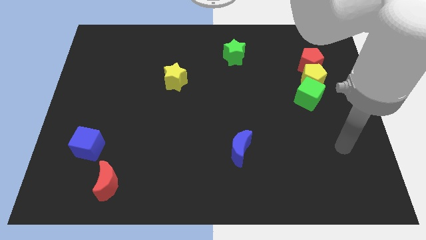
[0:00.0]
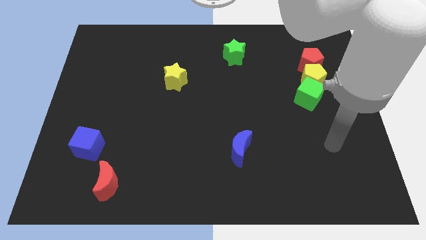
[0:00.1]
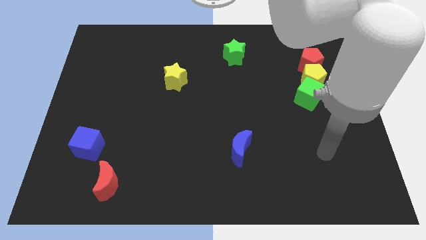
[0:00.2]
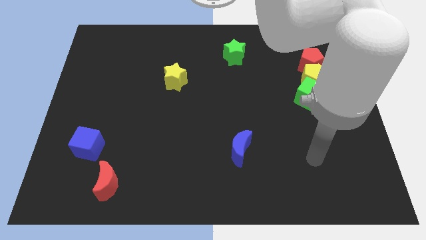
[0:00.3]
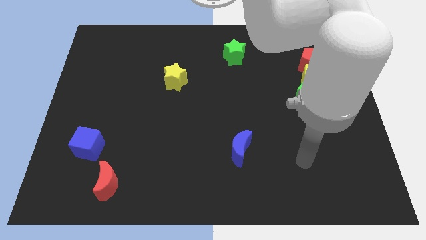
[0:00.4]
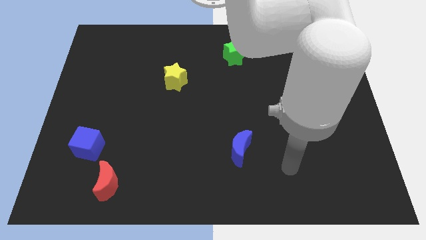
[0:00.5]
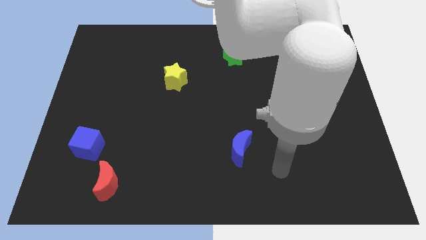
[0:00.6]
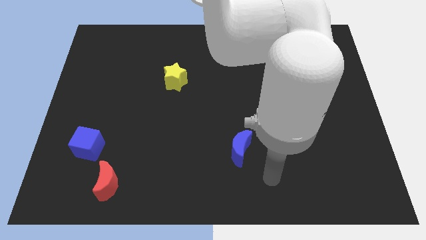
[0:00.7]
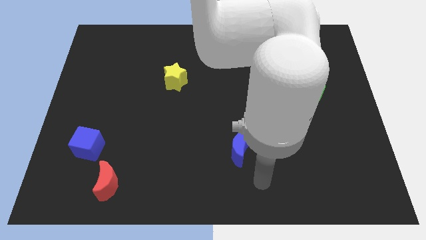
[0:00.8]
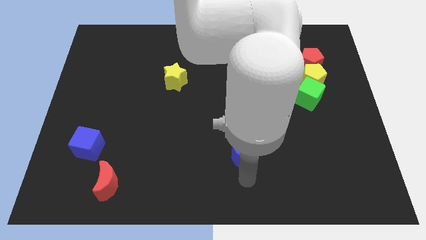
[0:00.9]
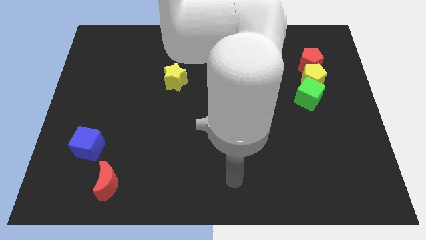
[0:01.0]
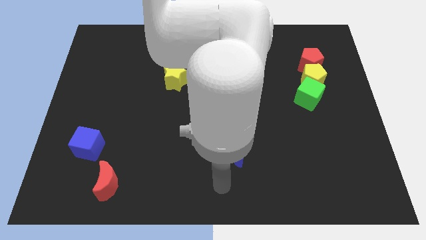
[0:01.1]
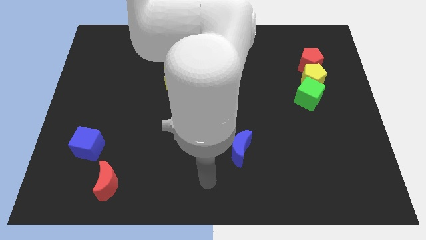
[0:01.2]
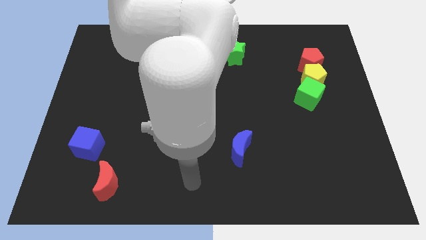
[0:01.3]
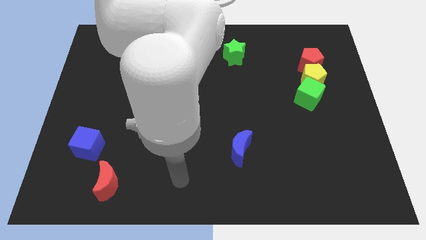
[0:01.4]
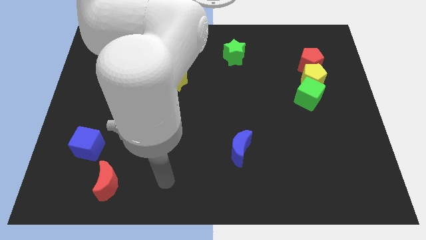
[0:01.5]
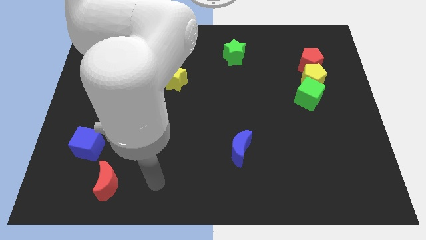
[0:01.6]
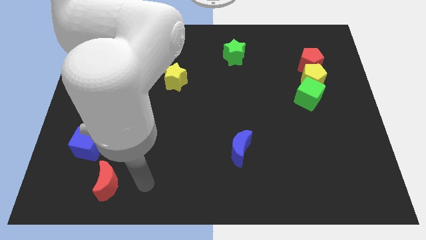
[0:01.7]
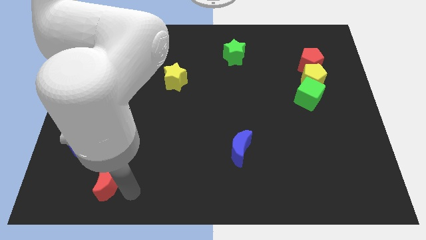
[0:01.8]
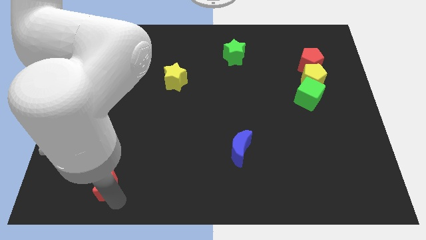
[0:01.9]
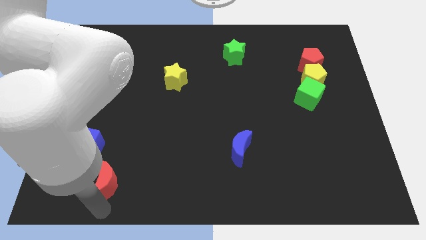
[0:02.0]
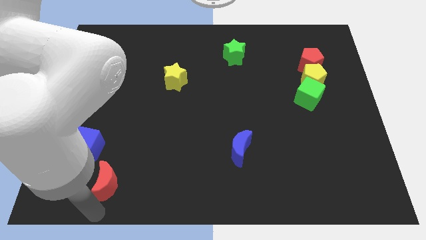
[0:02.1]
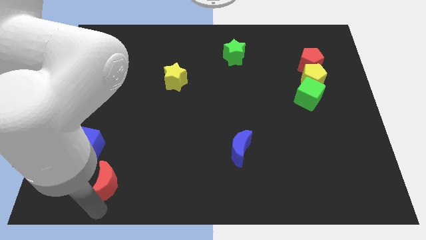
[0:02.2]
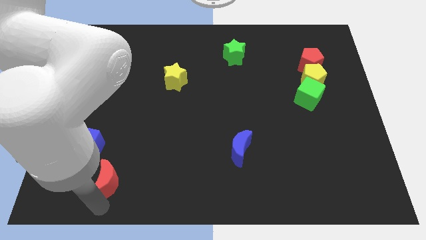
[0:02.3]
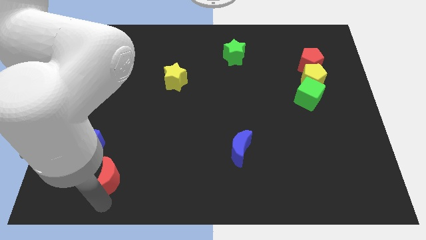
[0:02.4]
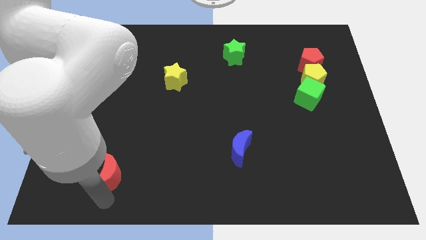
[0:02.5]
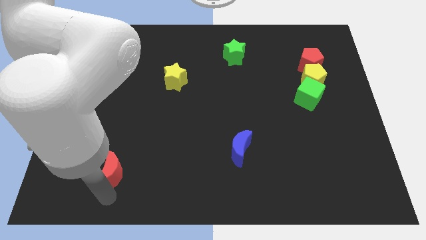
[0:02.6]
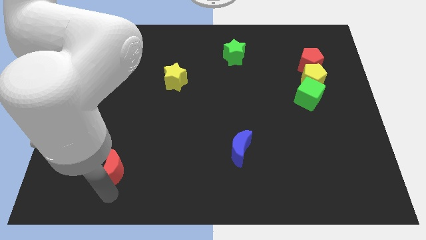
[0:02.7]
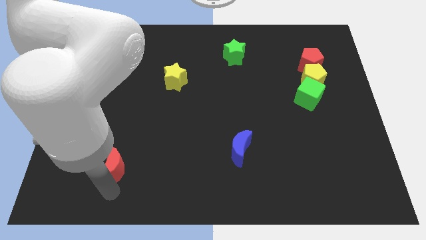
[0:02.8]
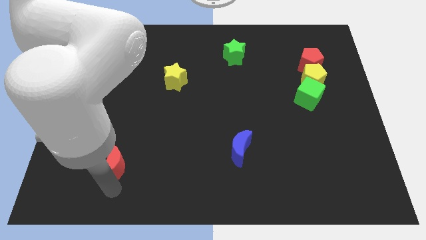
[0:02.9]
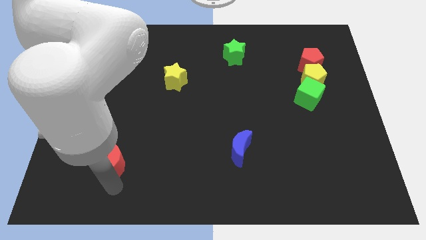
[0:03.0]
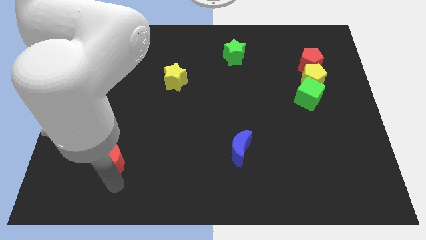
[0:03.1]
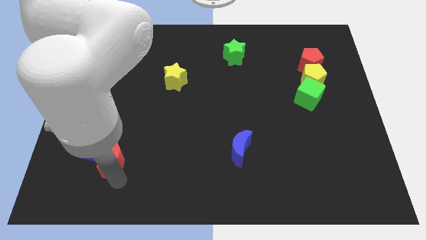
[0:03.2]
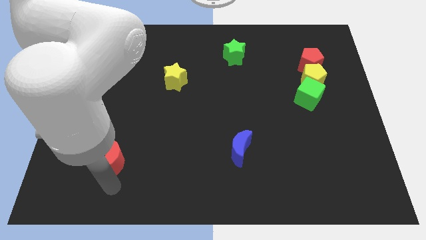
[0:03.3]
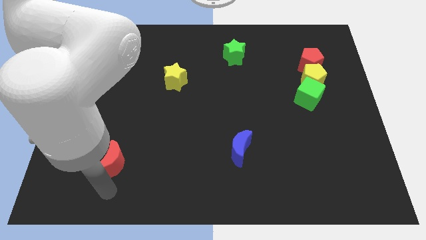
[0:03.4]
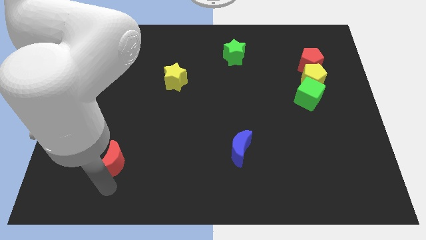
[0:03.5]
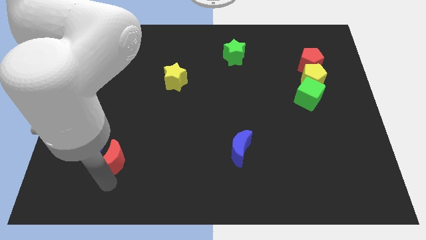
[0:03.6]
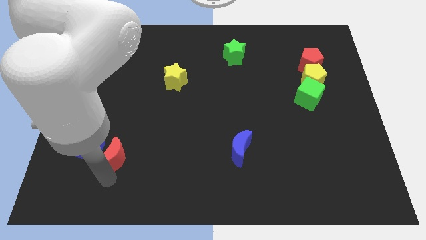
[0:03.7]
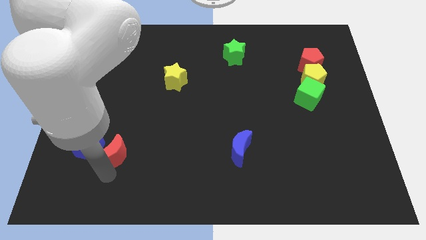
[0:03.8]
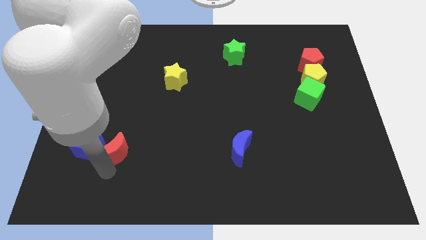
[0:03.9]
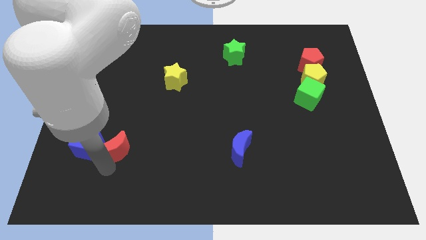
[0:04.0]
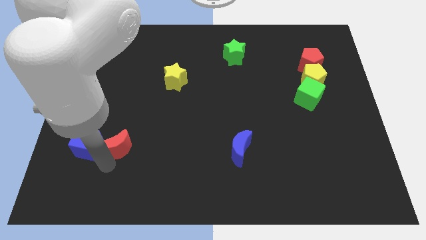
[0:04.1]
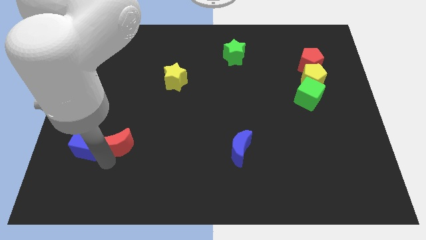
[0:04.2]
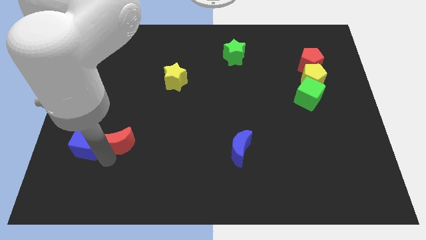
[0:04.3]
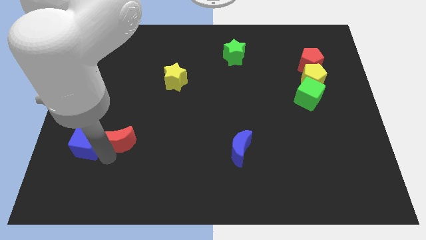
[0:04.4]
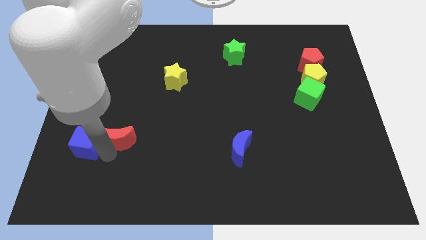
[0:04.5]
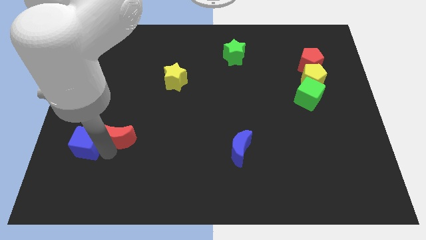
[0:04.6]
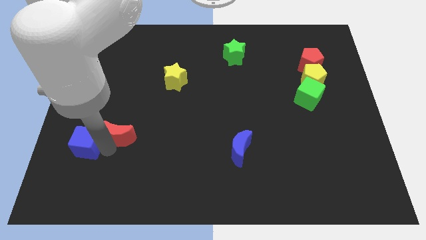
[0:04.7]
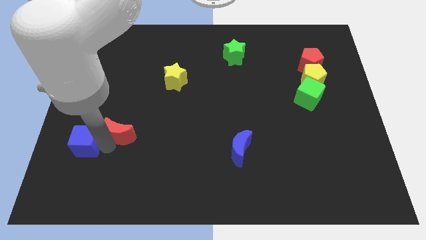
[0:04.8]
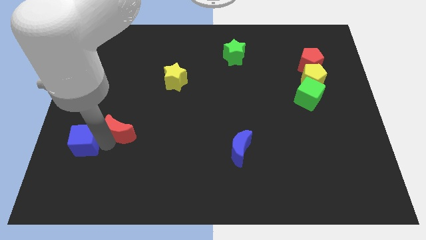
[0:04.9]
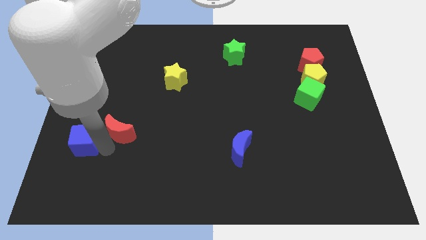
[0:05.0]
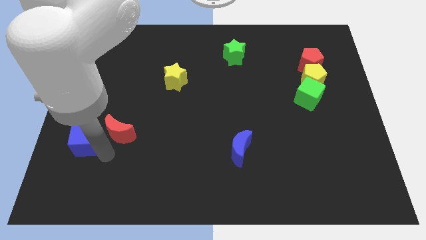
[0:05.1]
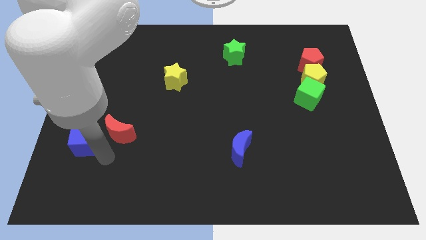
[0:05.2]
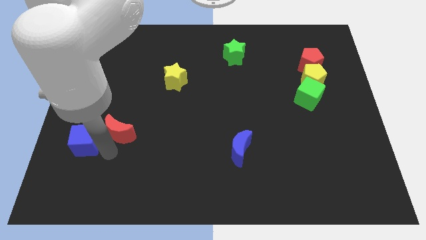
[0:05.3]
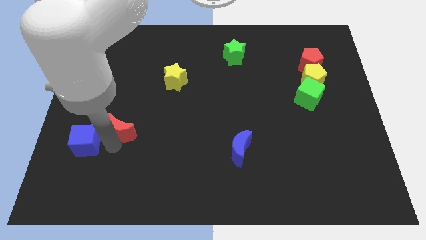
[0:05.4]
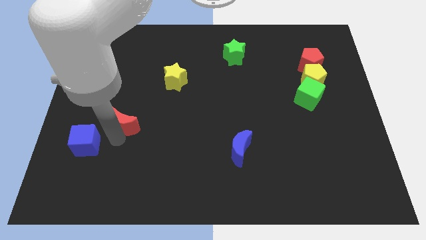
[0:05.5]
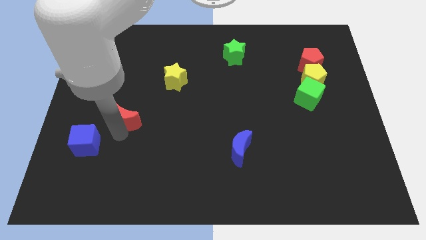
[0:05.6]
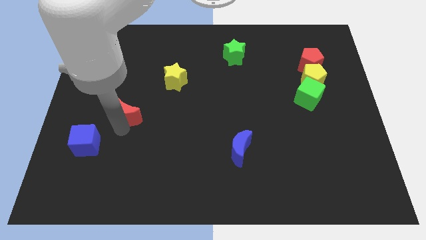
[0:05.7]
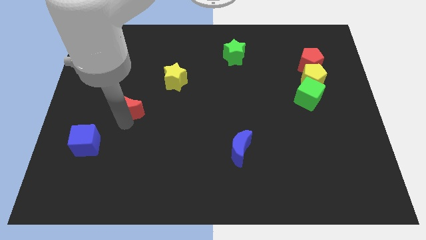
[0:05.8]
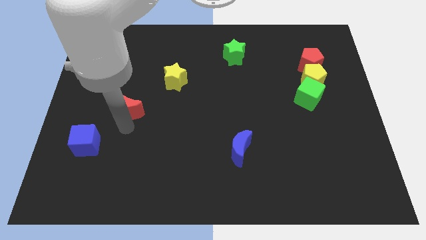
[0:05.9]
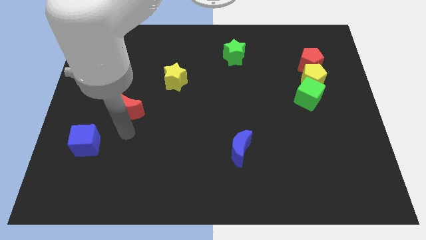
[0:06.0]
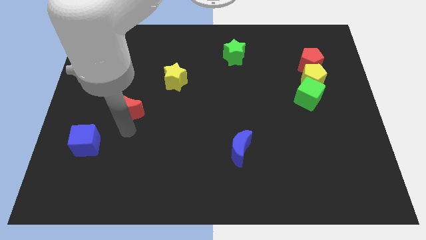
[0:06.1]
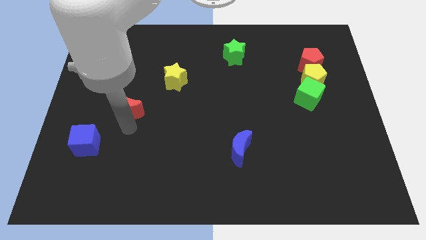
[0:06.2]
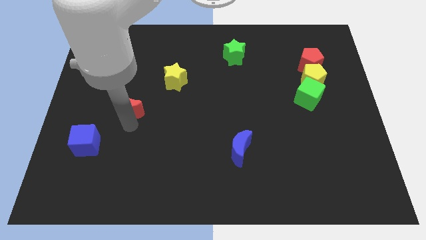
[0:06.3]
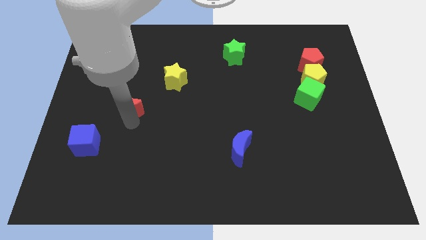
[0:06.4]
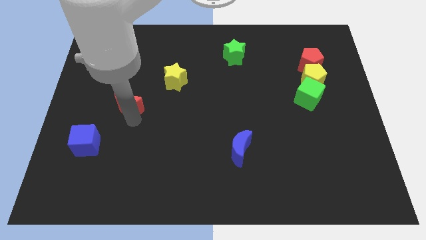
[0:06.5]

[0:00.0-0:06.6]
slide the red moon up

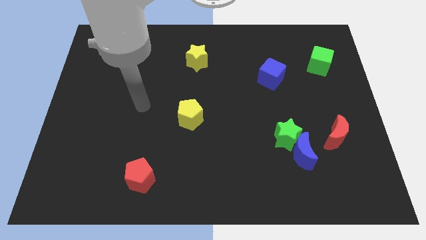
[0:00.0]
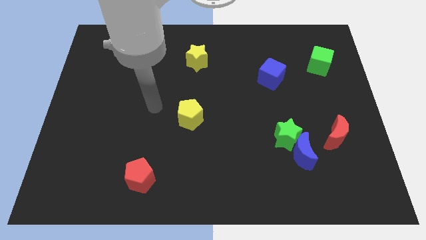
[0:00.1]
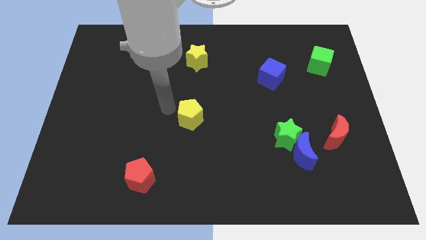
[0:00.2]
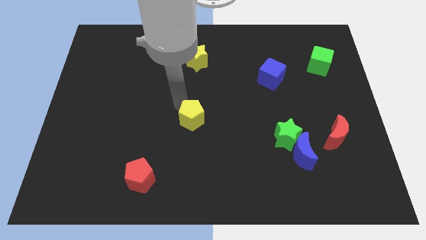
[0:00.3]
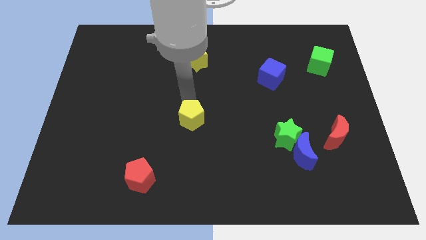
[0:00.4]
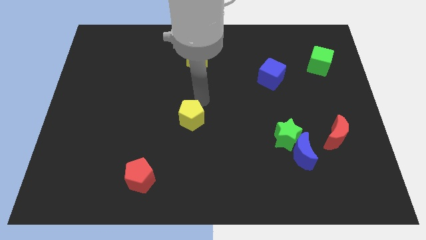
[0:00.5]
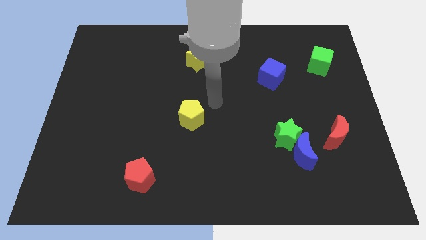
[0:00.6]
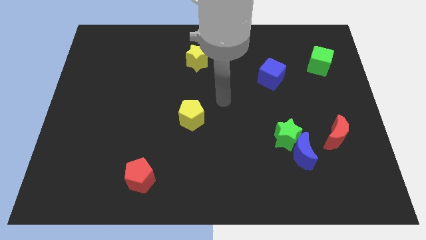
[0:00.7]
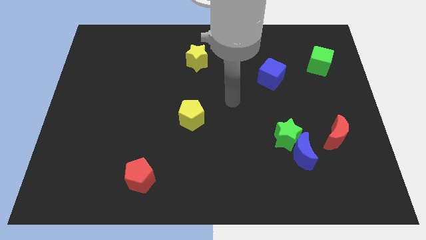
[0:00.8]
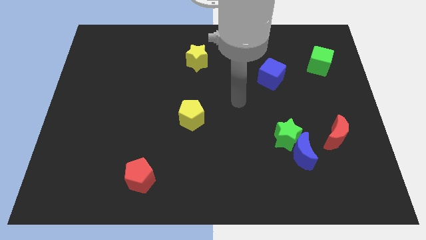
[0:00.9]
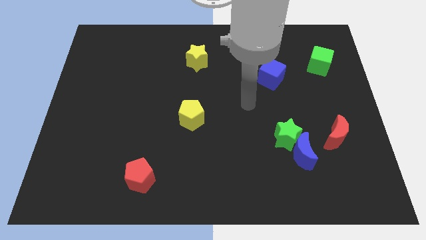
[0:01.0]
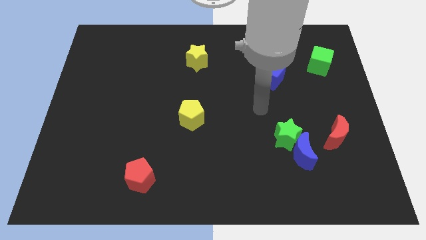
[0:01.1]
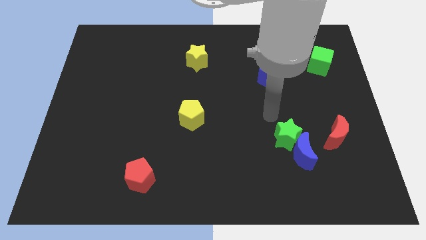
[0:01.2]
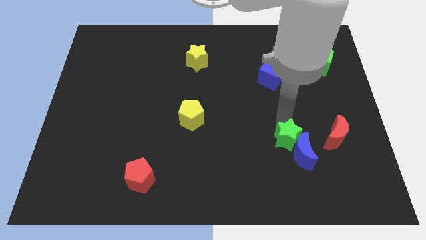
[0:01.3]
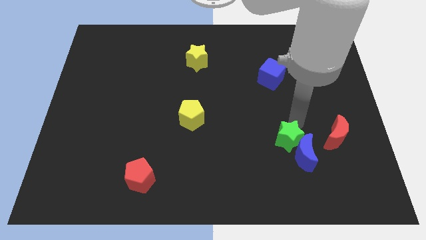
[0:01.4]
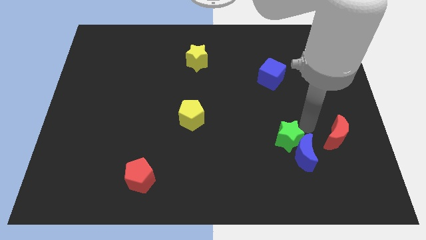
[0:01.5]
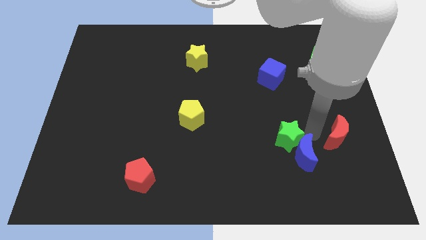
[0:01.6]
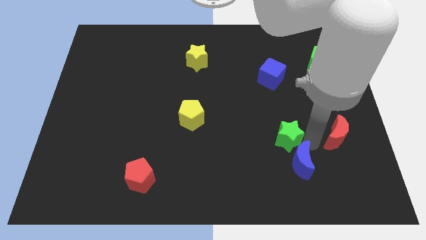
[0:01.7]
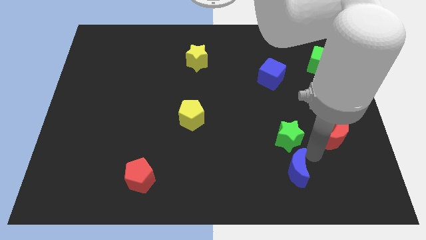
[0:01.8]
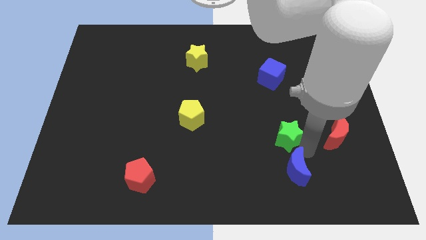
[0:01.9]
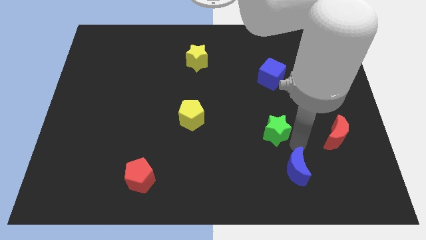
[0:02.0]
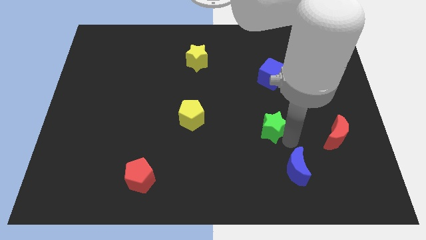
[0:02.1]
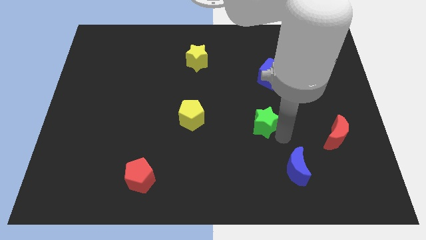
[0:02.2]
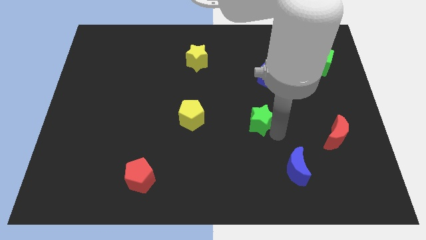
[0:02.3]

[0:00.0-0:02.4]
slide the green star somewhat upwards and to the left diagonally
